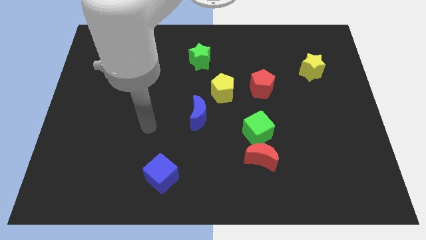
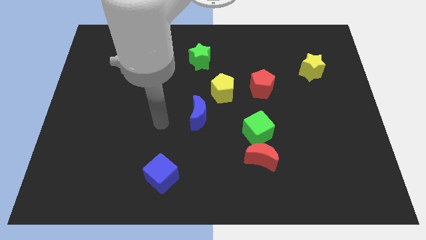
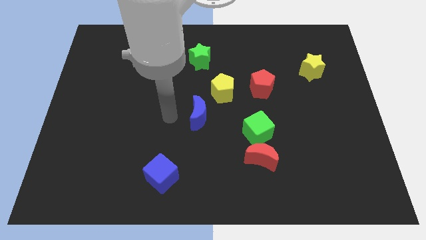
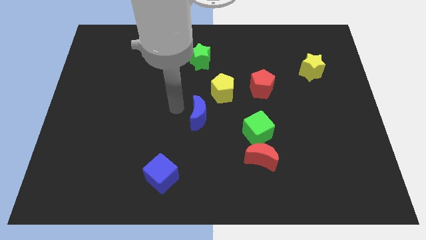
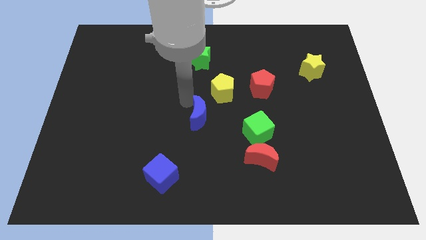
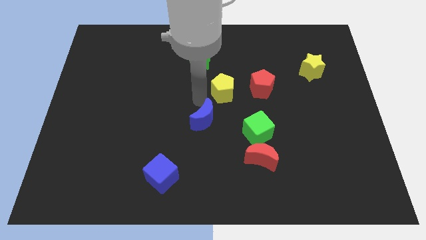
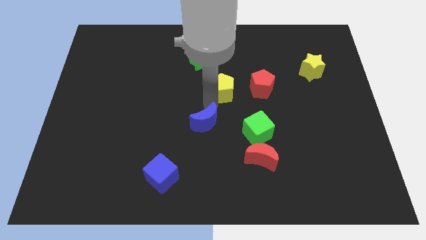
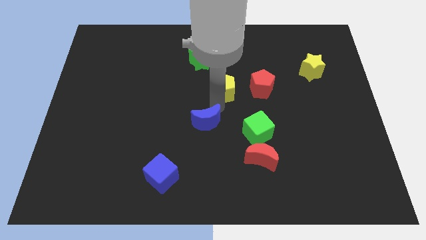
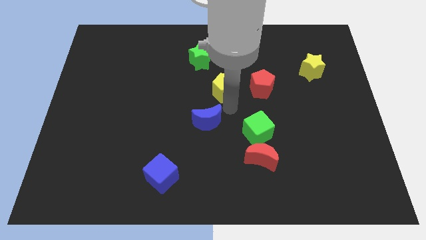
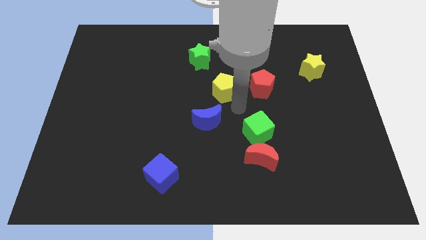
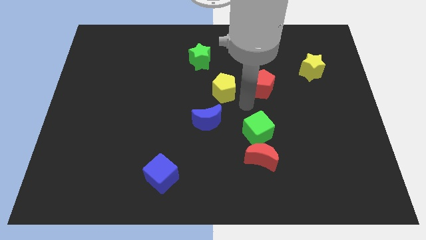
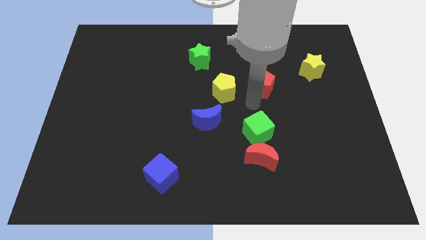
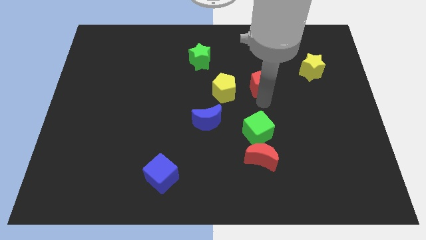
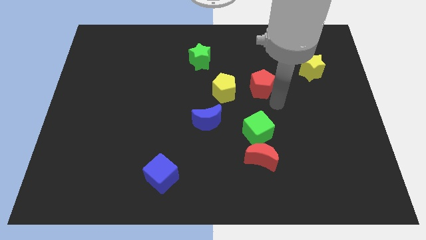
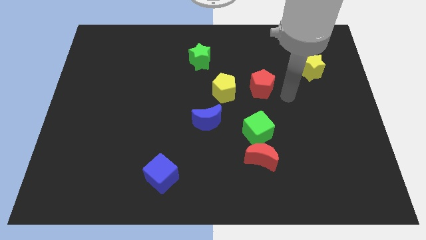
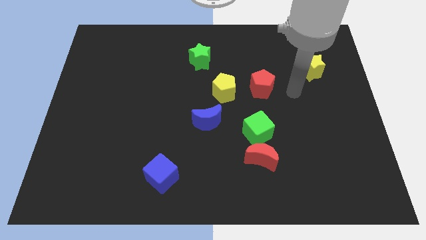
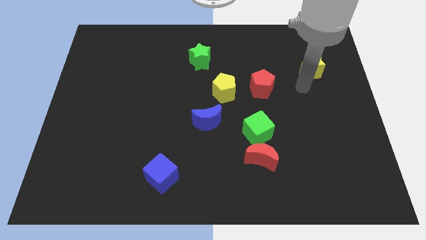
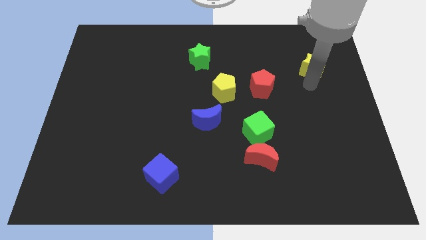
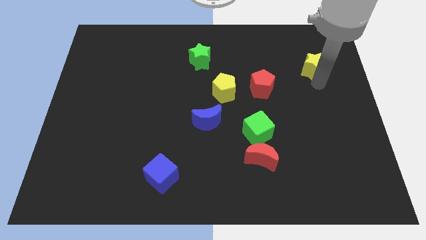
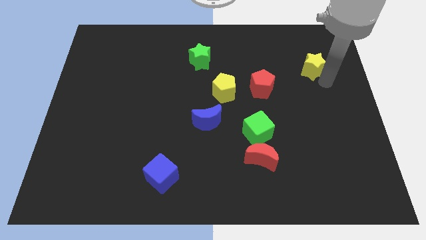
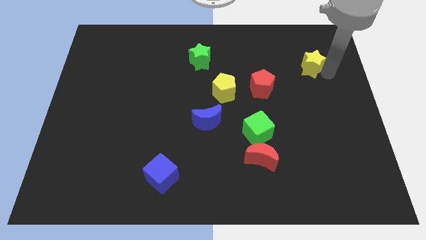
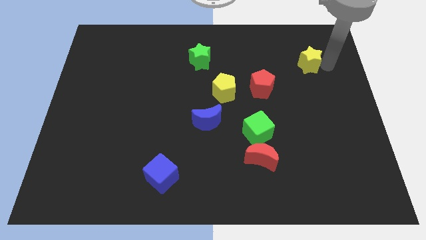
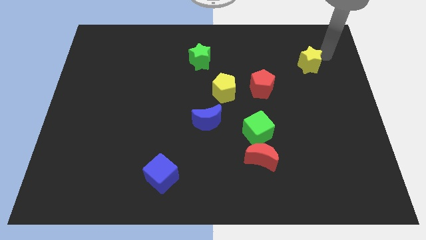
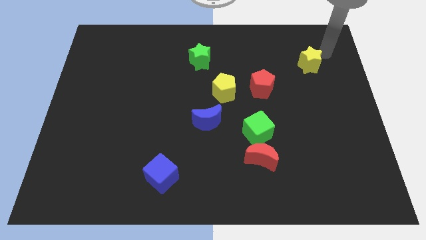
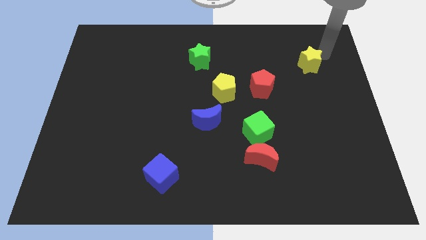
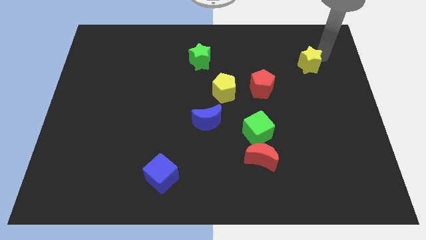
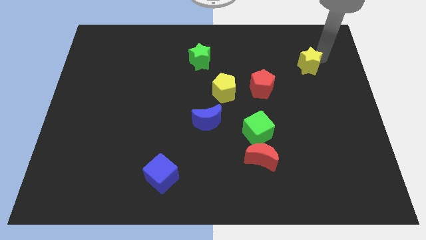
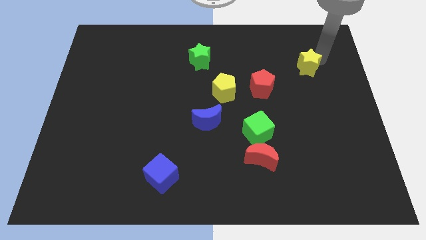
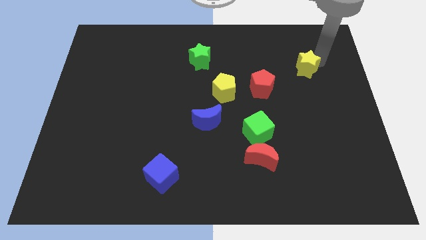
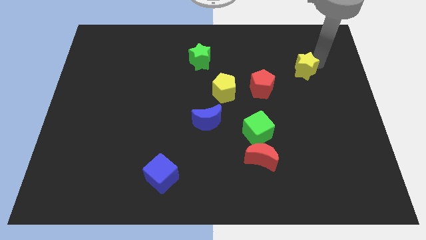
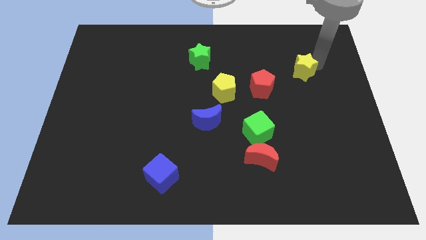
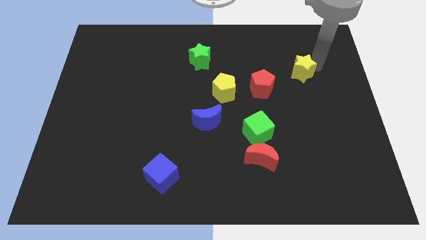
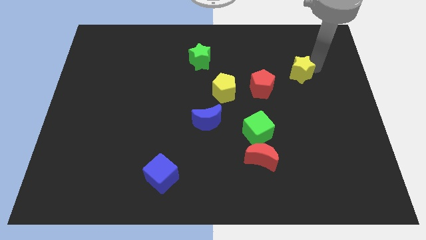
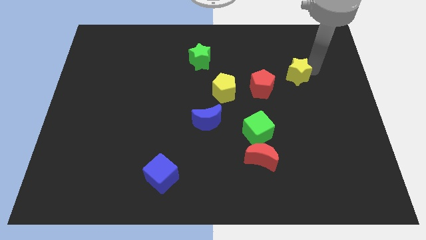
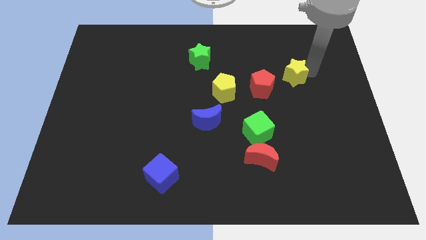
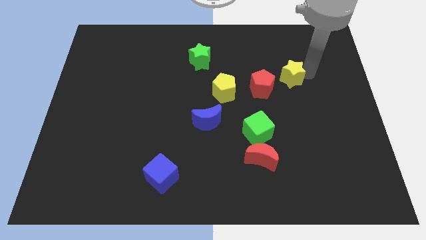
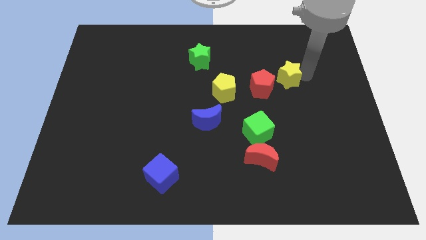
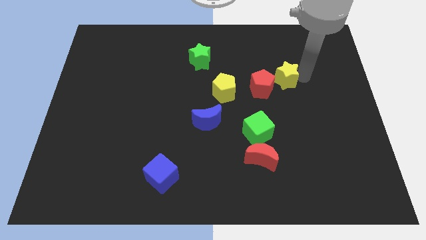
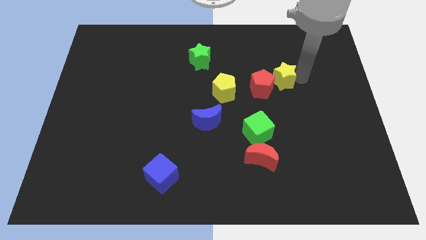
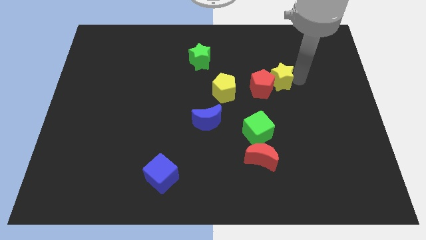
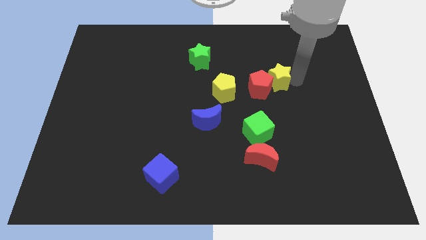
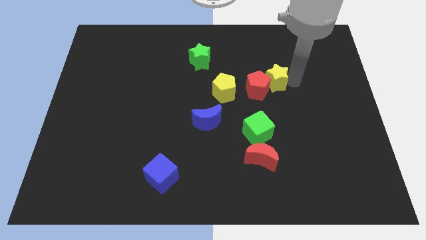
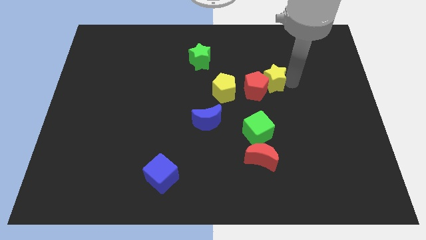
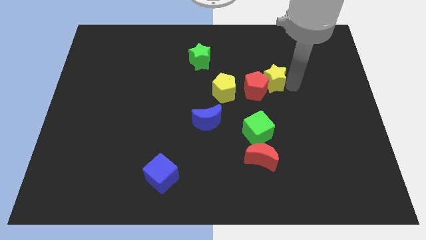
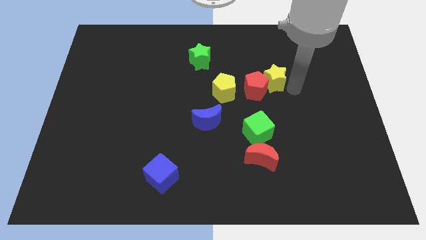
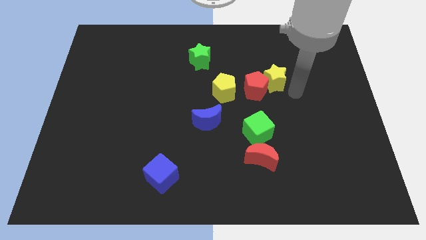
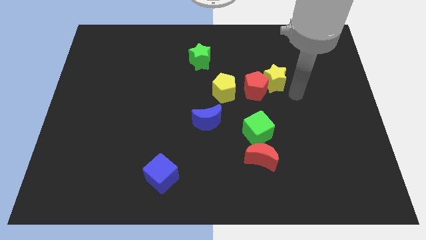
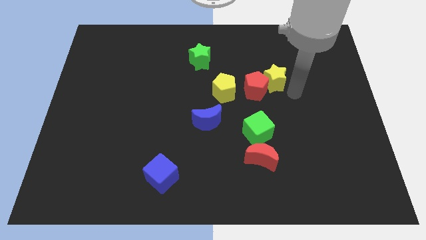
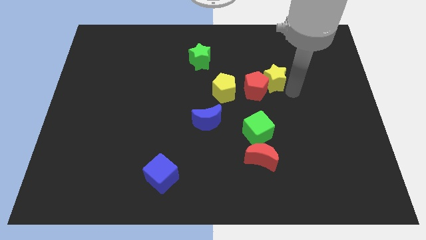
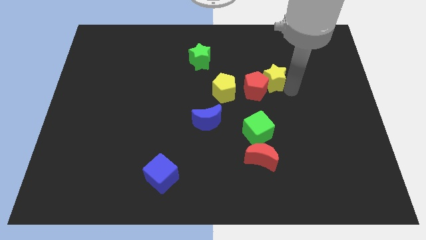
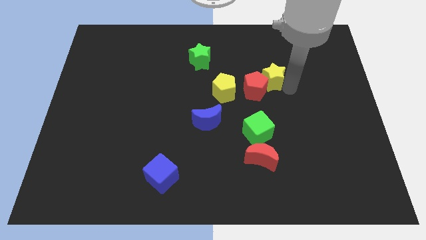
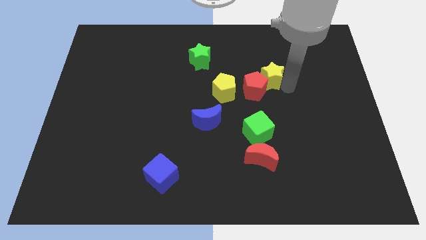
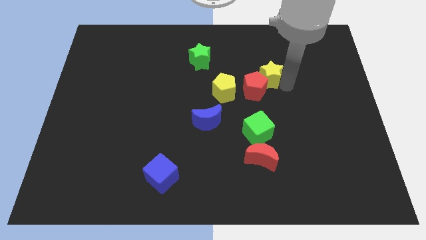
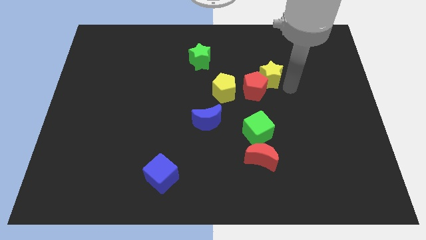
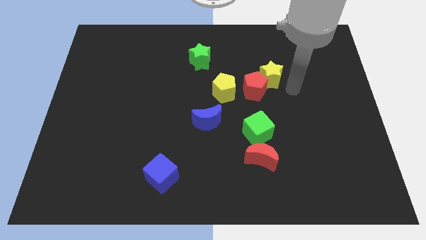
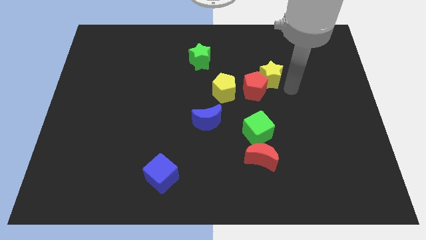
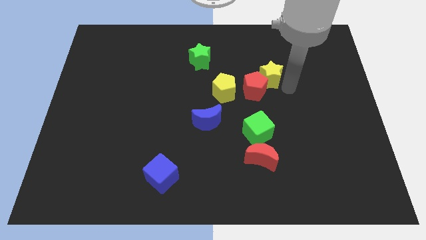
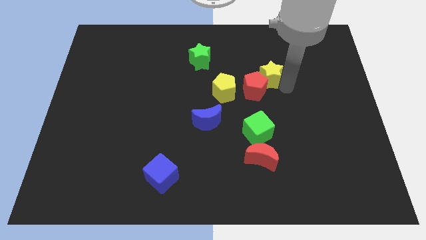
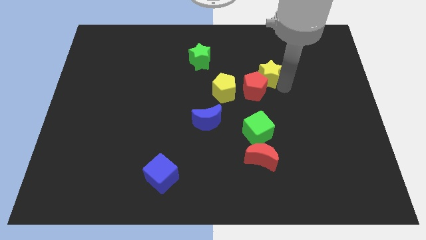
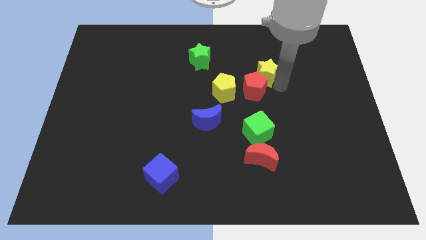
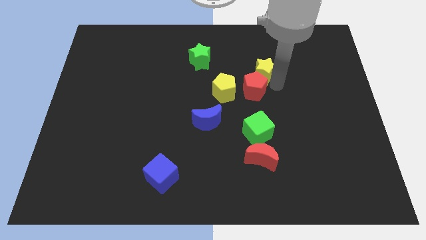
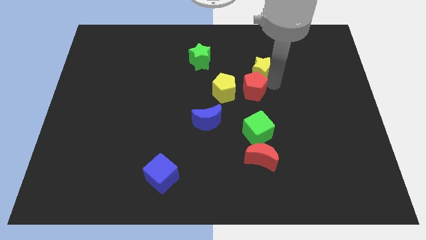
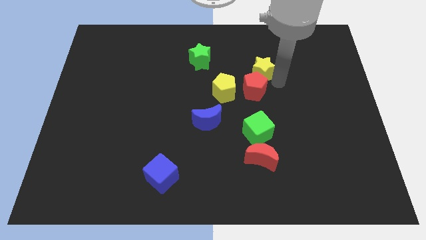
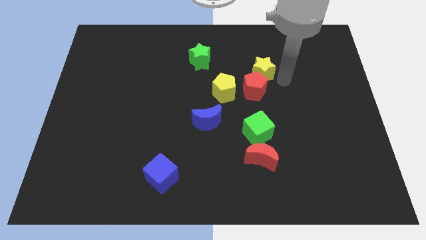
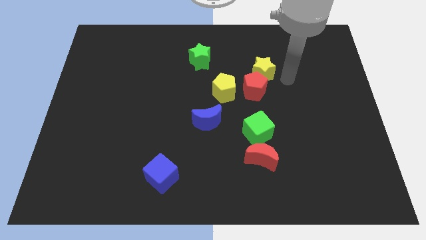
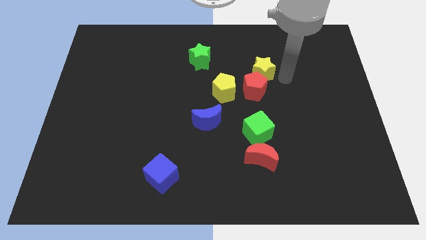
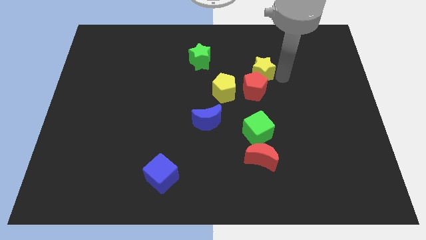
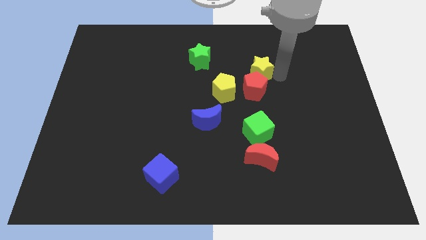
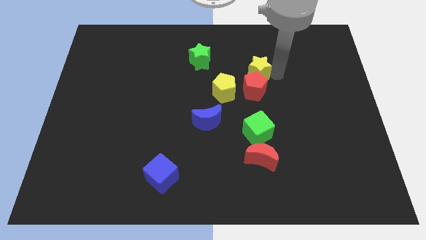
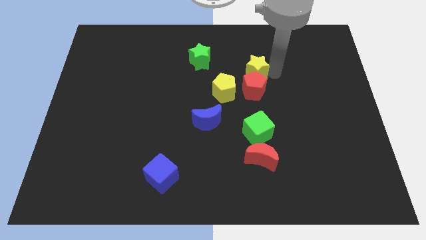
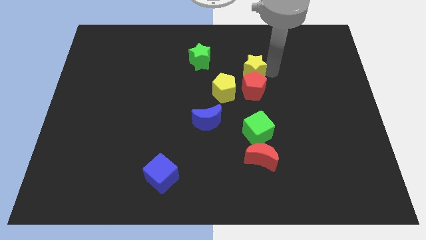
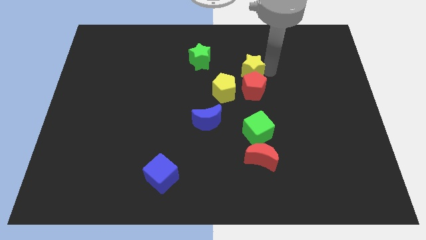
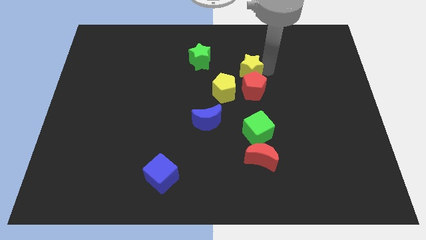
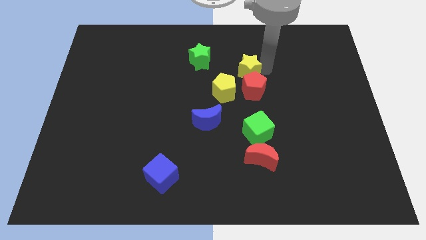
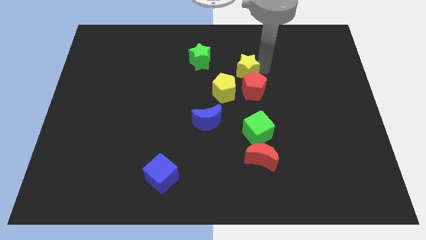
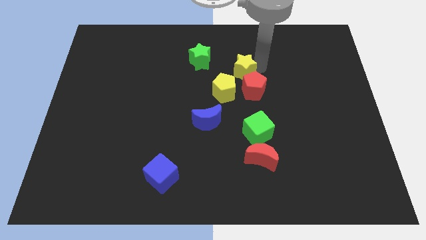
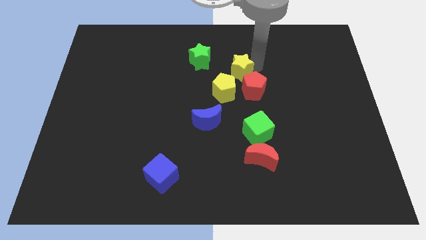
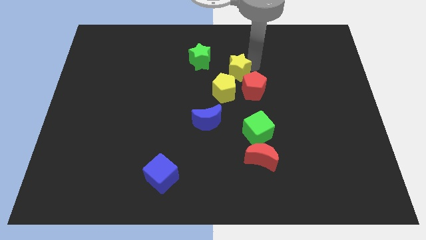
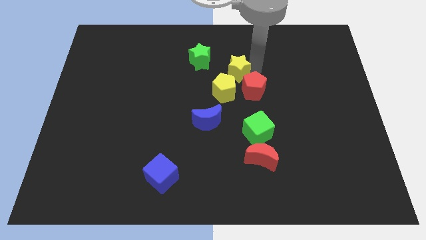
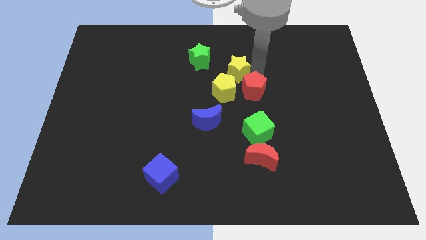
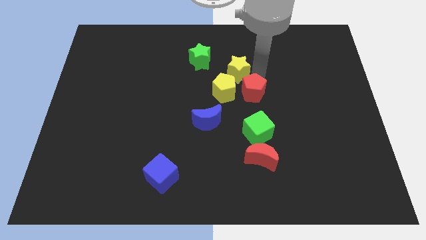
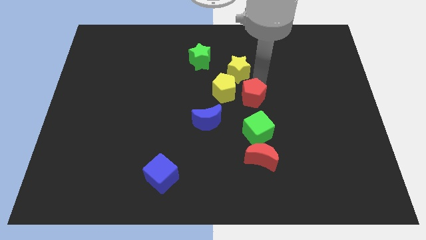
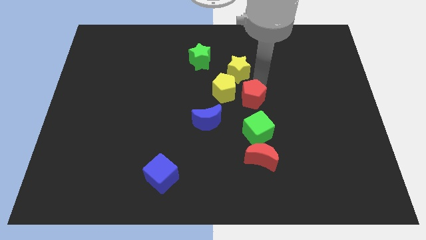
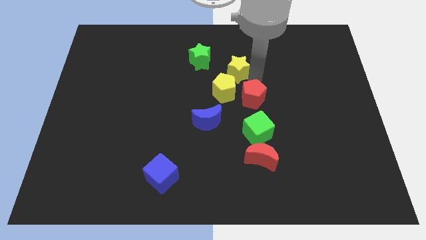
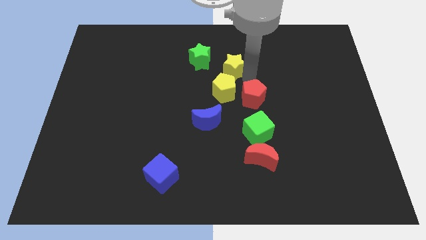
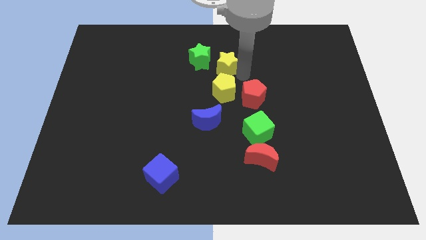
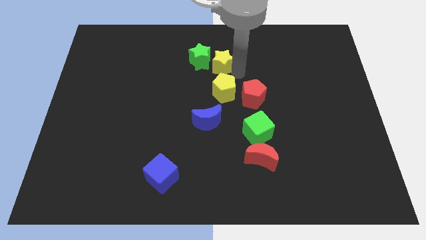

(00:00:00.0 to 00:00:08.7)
push the yellow star close to the green star
